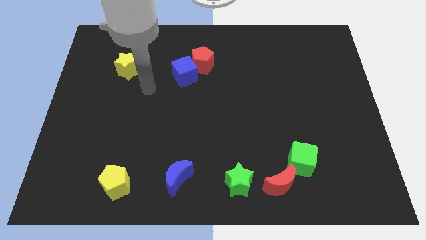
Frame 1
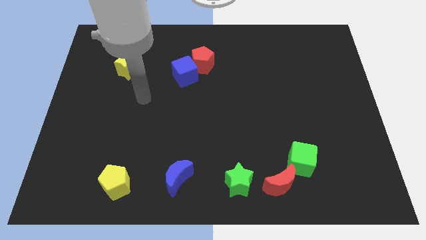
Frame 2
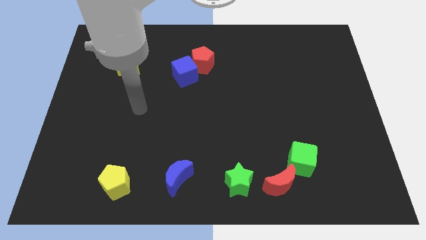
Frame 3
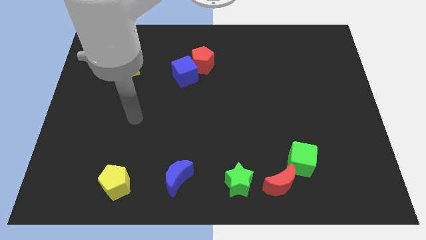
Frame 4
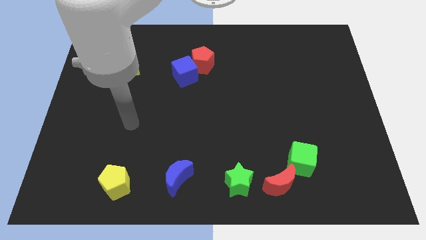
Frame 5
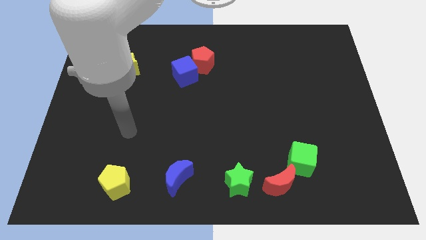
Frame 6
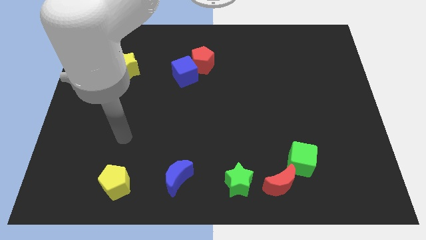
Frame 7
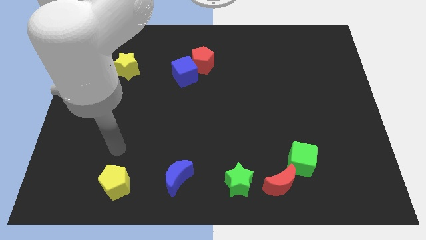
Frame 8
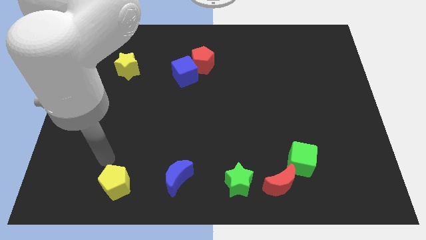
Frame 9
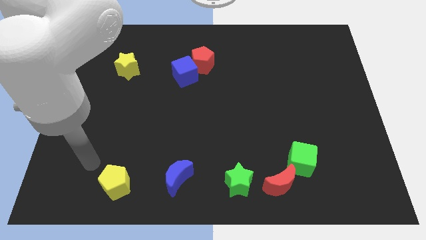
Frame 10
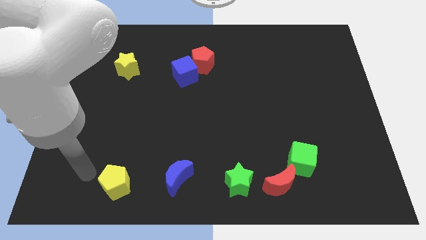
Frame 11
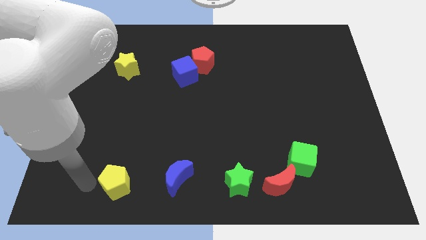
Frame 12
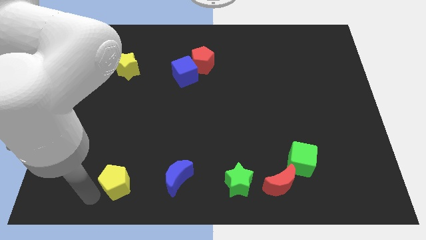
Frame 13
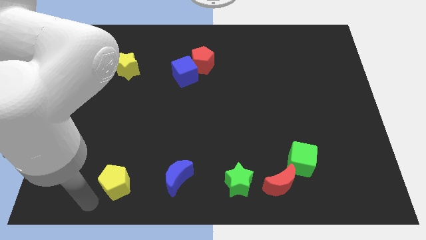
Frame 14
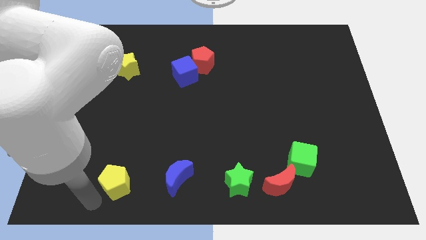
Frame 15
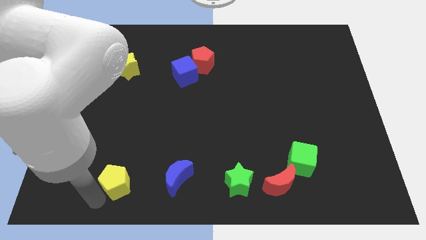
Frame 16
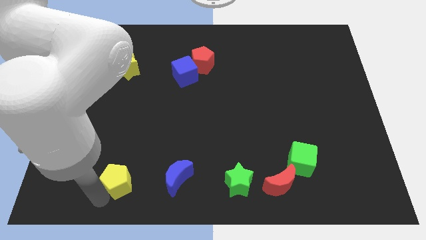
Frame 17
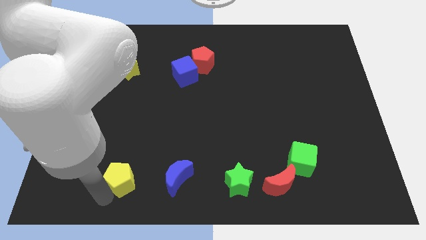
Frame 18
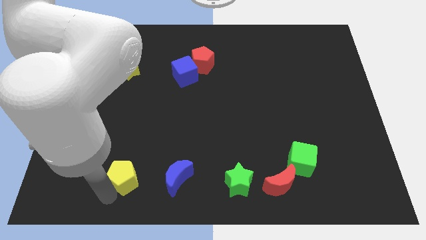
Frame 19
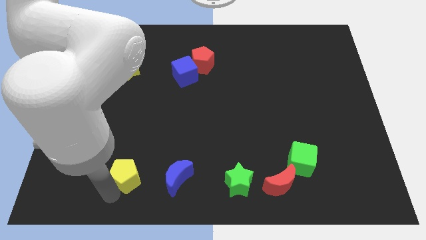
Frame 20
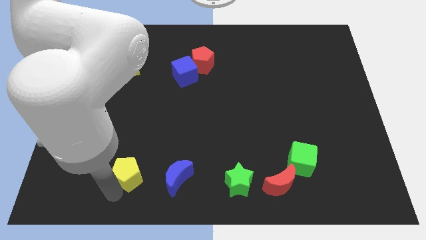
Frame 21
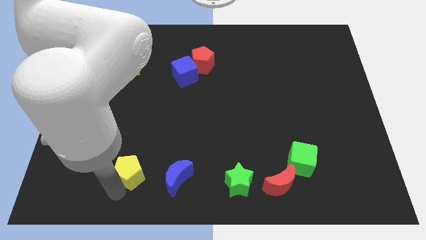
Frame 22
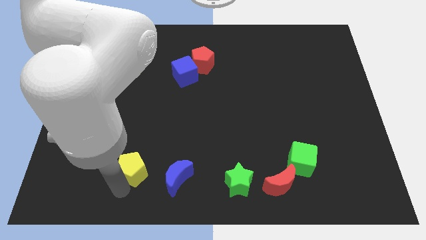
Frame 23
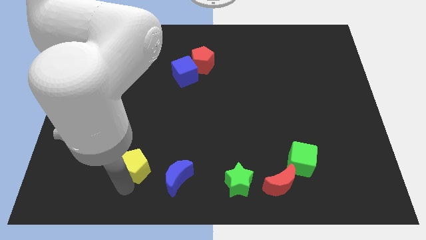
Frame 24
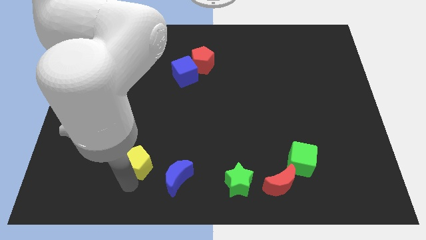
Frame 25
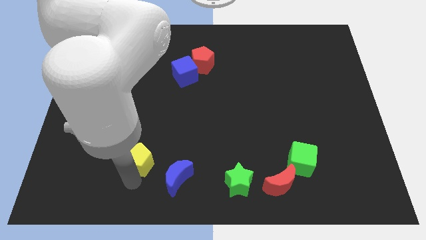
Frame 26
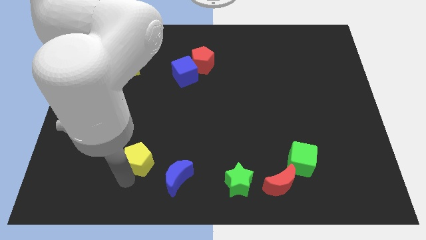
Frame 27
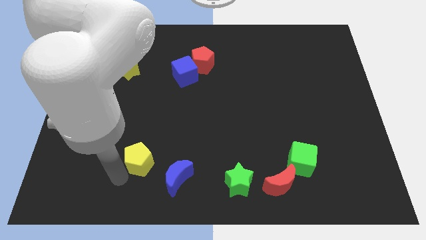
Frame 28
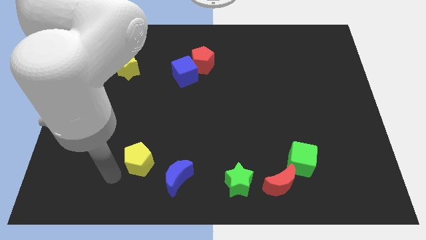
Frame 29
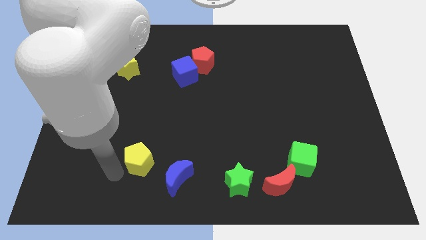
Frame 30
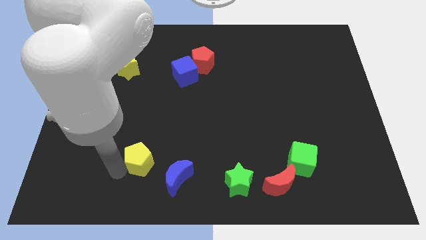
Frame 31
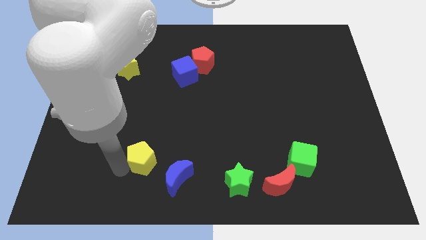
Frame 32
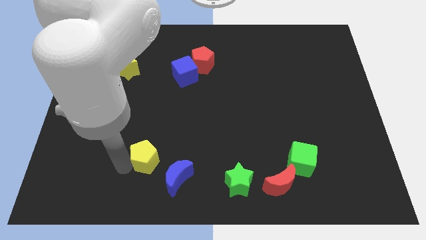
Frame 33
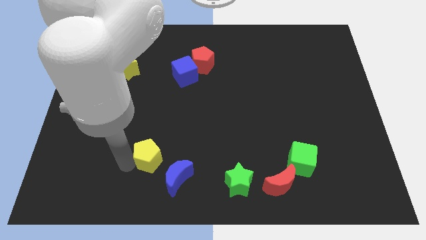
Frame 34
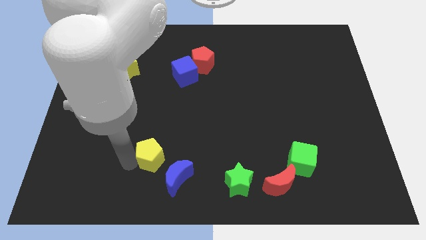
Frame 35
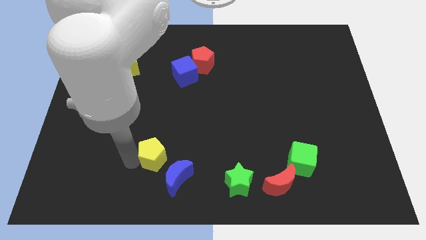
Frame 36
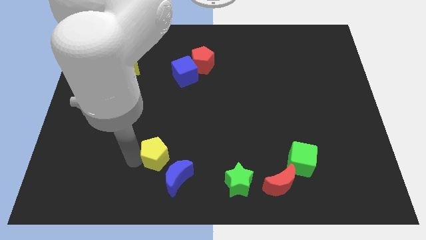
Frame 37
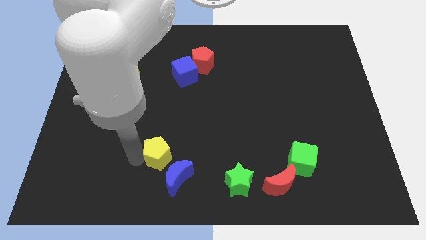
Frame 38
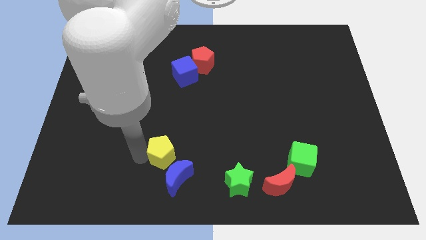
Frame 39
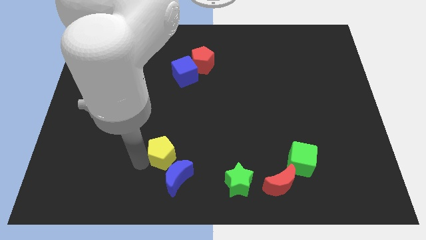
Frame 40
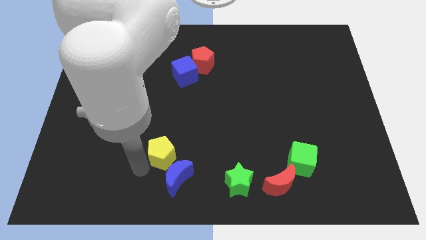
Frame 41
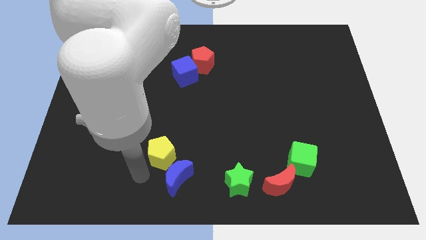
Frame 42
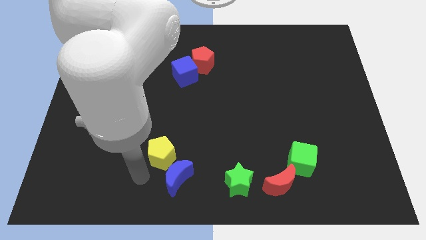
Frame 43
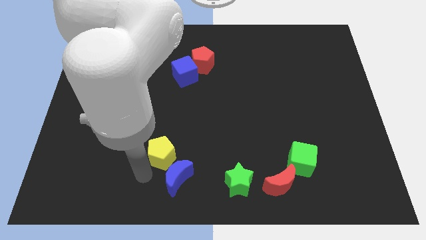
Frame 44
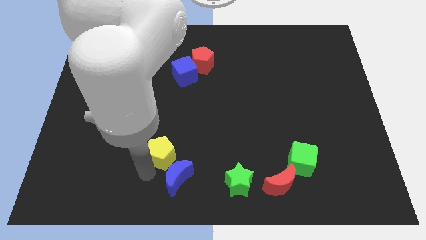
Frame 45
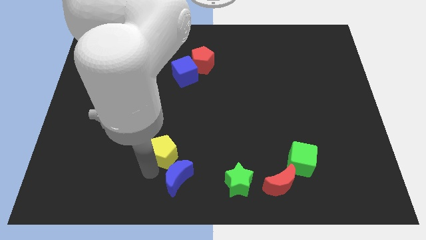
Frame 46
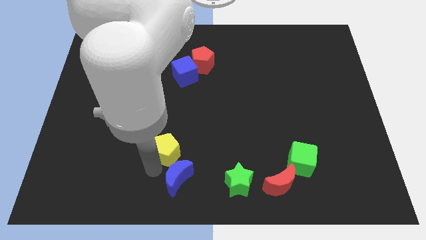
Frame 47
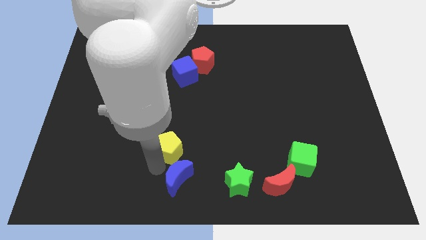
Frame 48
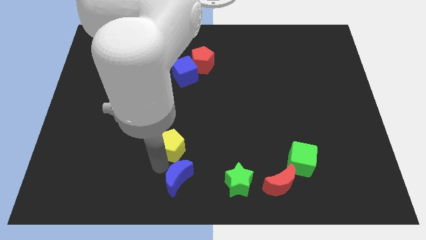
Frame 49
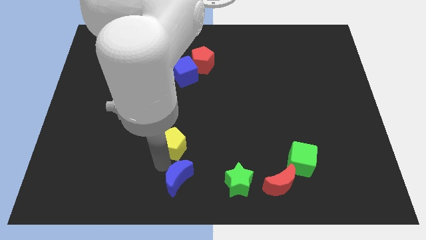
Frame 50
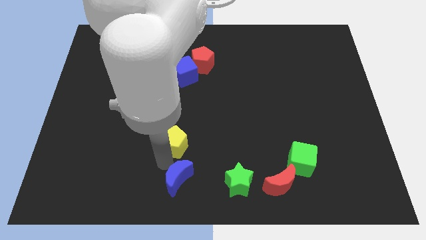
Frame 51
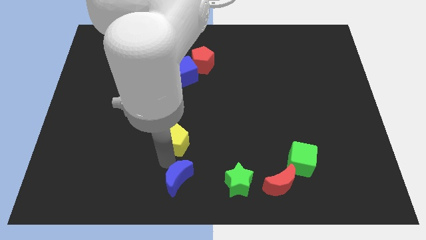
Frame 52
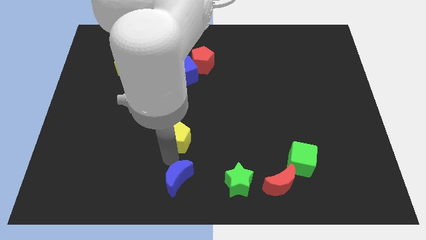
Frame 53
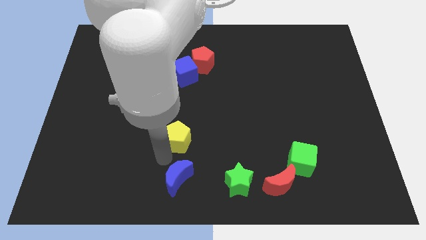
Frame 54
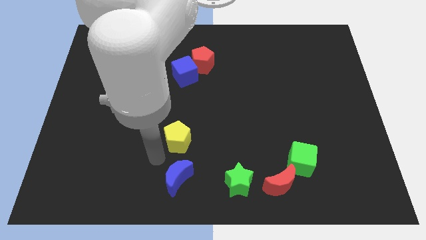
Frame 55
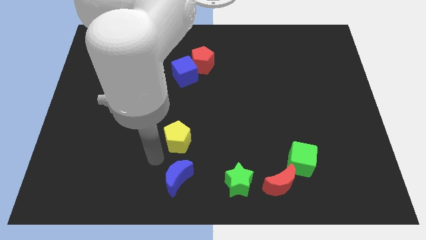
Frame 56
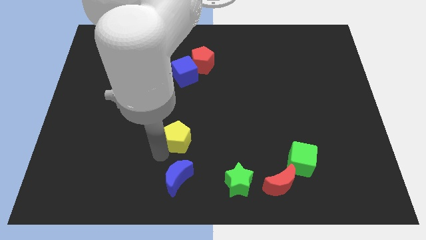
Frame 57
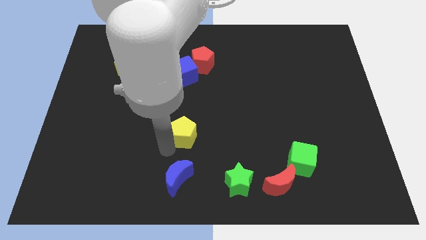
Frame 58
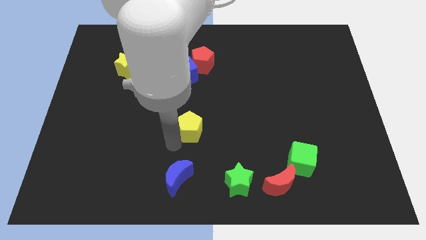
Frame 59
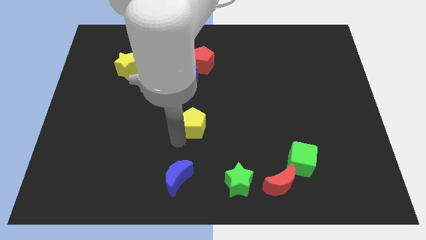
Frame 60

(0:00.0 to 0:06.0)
move the yellow pentagon up and to the right

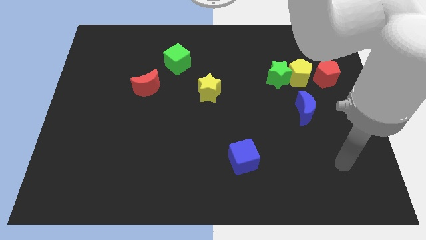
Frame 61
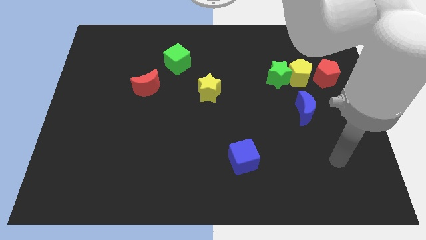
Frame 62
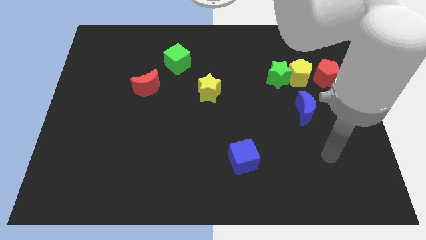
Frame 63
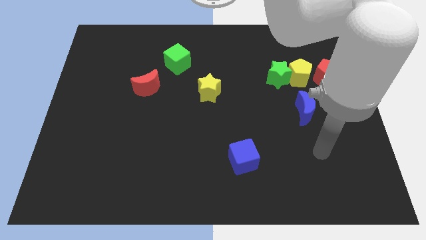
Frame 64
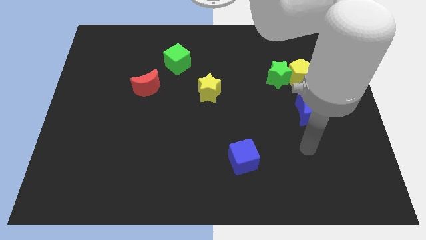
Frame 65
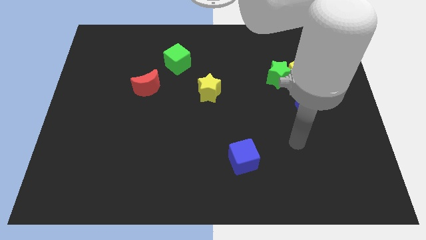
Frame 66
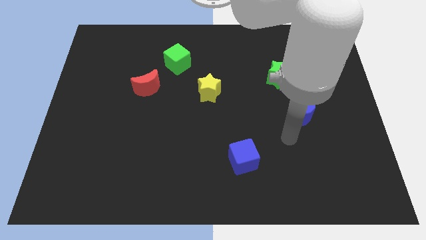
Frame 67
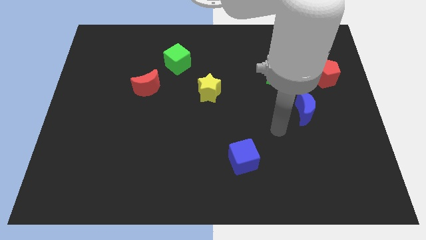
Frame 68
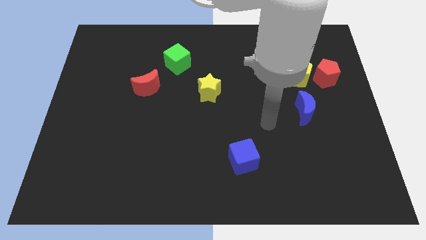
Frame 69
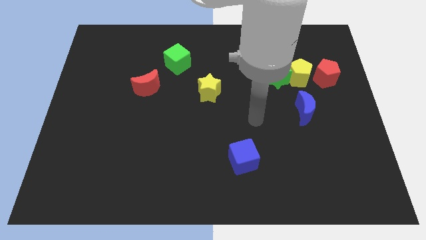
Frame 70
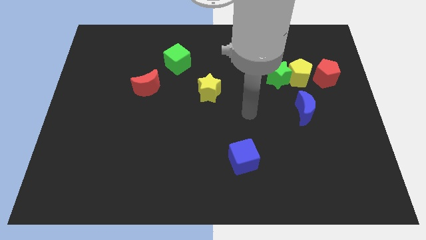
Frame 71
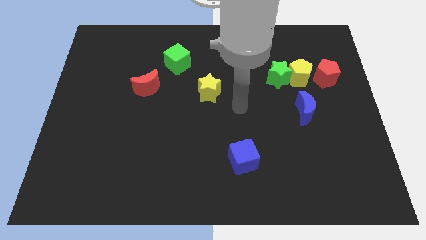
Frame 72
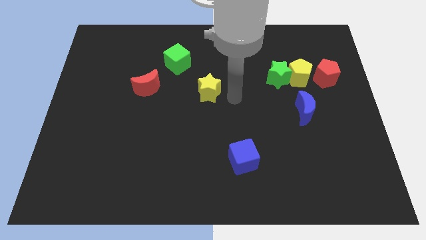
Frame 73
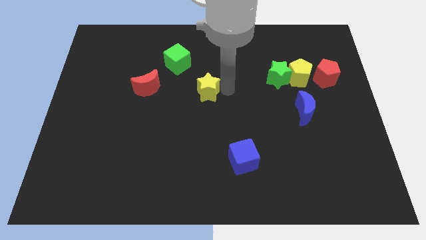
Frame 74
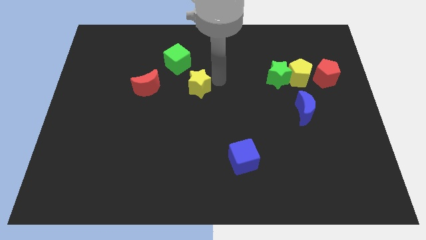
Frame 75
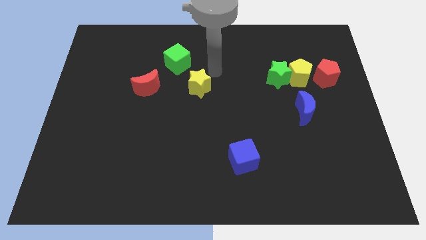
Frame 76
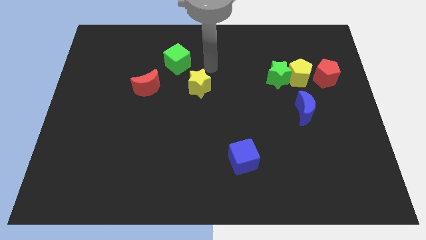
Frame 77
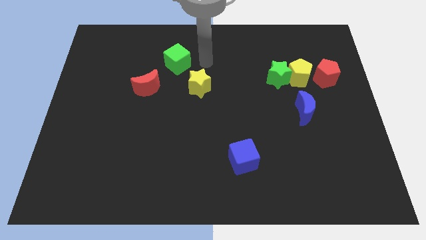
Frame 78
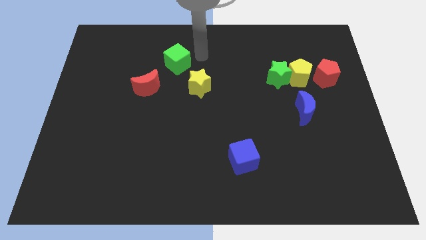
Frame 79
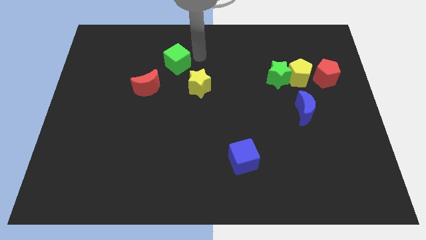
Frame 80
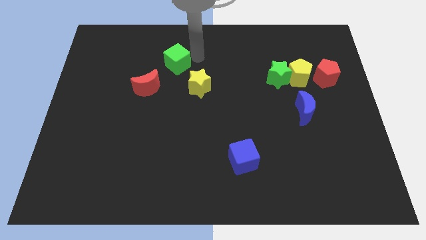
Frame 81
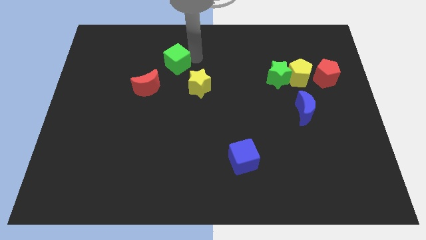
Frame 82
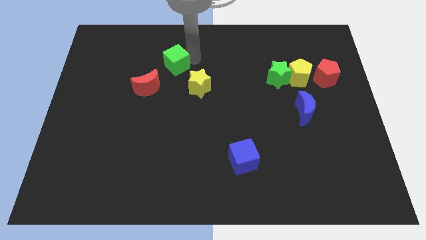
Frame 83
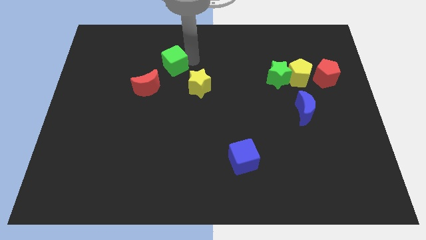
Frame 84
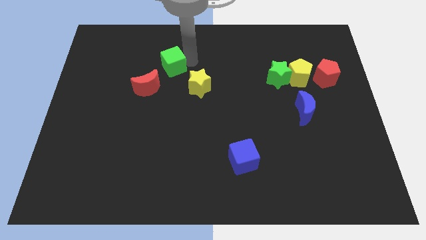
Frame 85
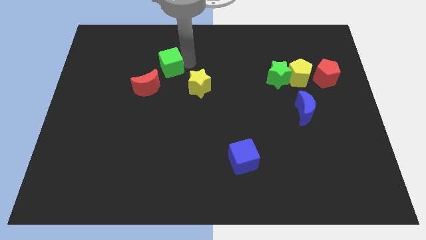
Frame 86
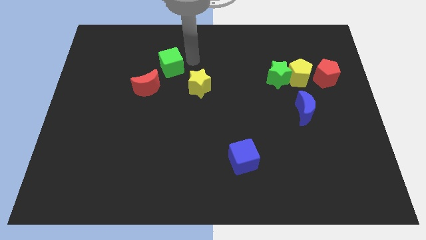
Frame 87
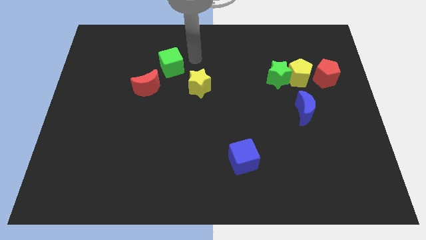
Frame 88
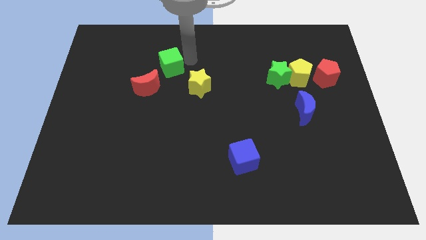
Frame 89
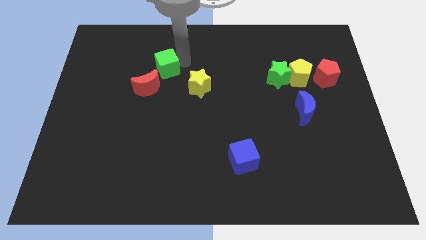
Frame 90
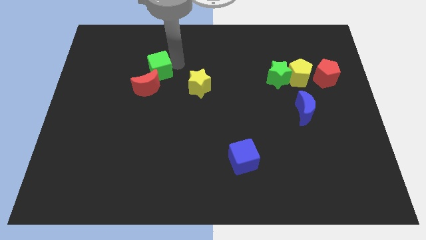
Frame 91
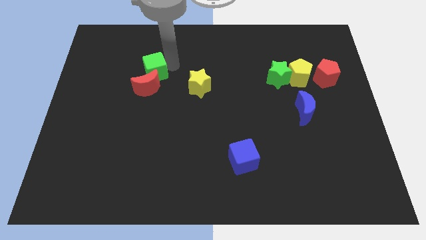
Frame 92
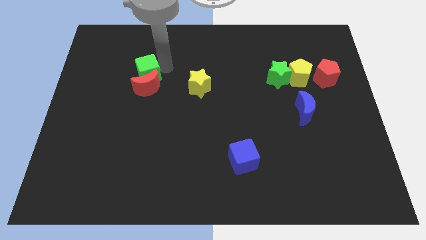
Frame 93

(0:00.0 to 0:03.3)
slightly push the green cube diagonally downwards and to the left
